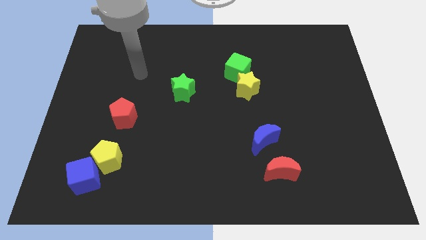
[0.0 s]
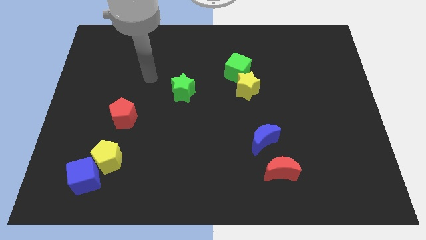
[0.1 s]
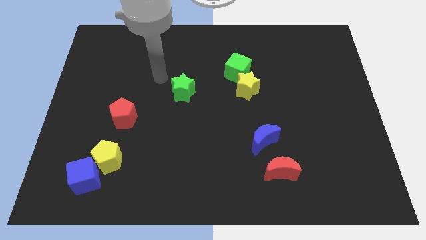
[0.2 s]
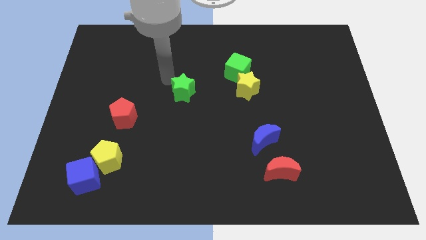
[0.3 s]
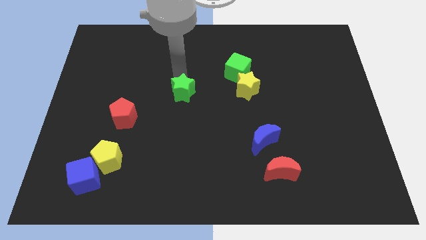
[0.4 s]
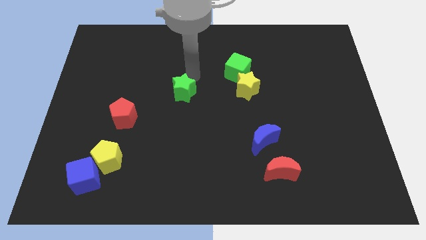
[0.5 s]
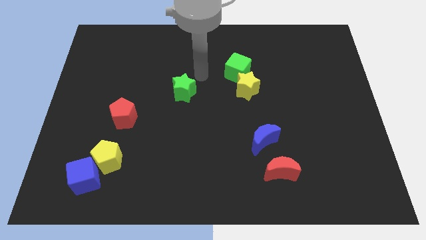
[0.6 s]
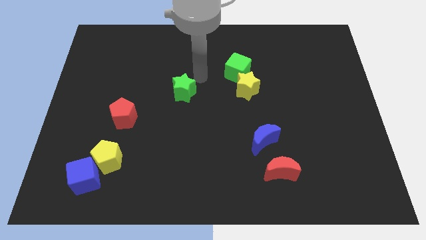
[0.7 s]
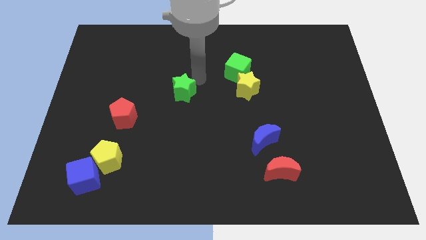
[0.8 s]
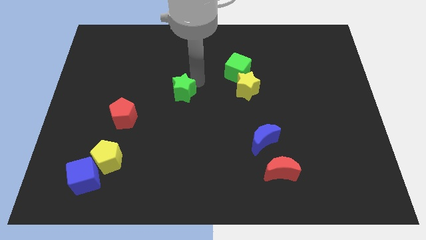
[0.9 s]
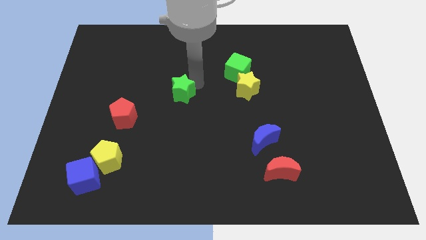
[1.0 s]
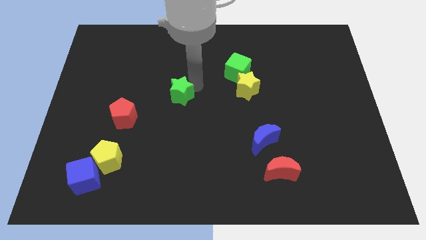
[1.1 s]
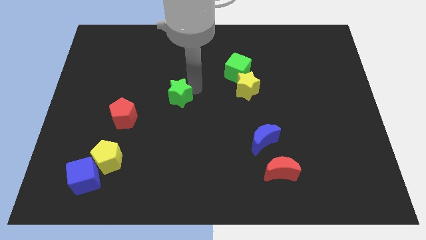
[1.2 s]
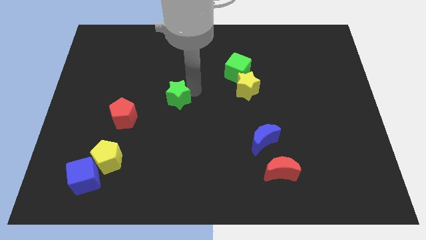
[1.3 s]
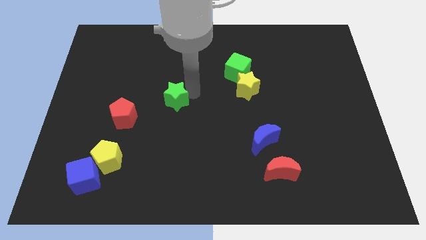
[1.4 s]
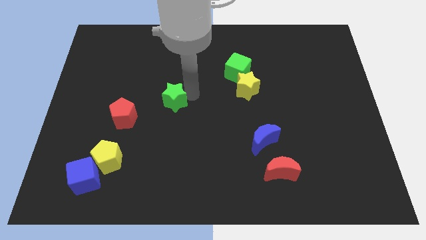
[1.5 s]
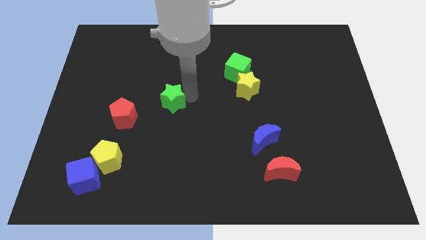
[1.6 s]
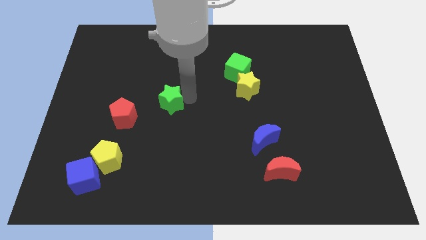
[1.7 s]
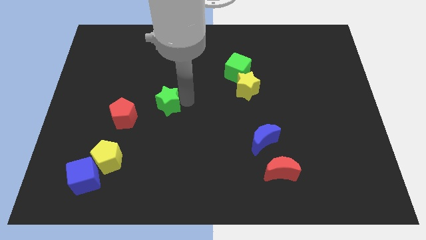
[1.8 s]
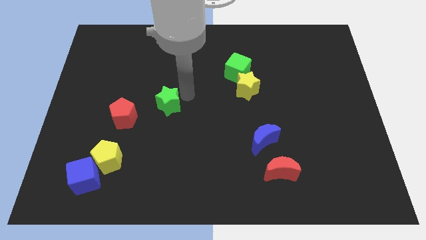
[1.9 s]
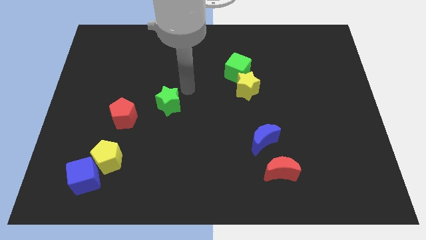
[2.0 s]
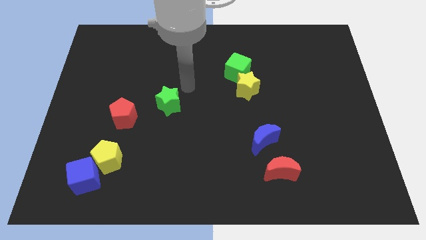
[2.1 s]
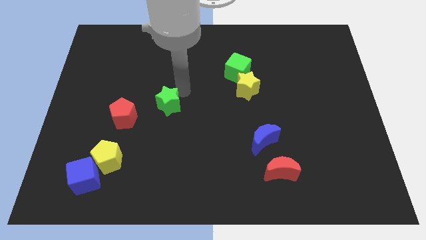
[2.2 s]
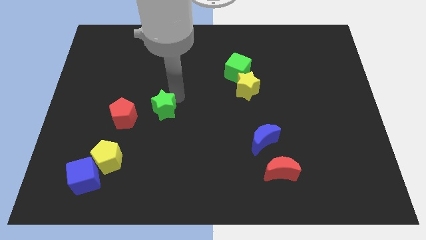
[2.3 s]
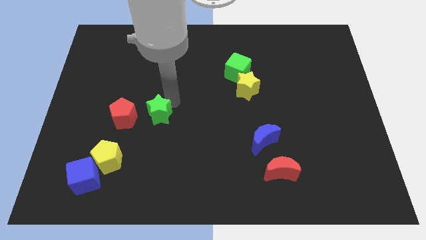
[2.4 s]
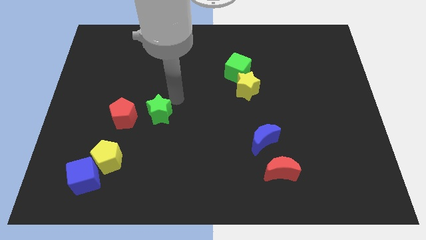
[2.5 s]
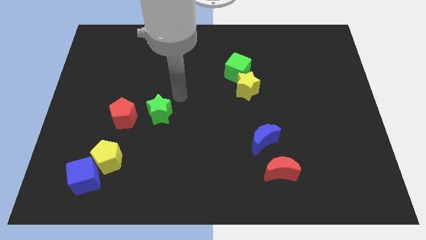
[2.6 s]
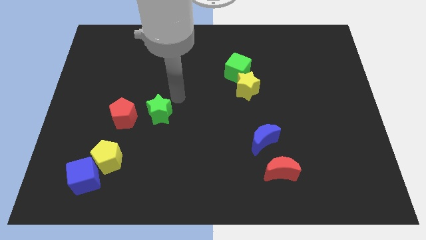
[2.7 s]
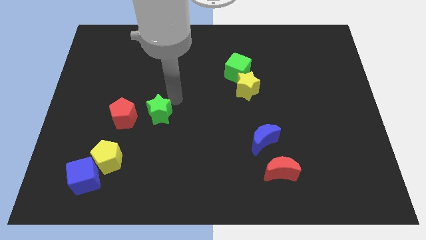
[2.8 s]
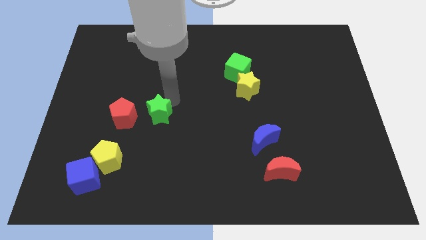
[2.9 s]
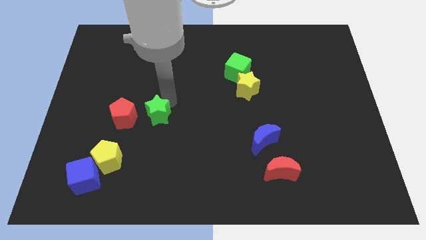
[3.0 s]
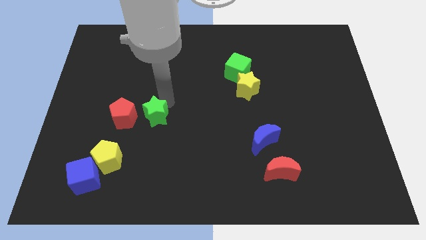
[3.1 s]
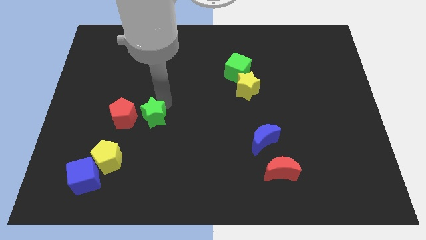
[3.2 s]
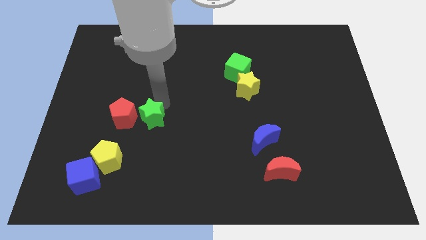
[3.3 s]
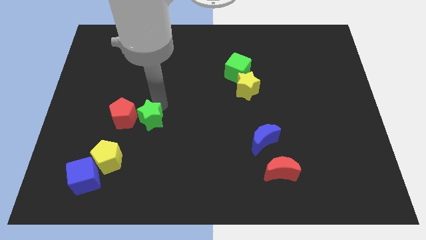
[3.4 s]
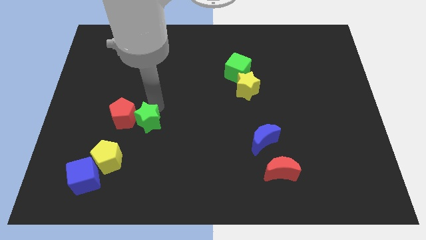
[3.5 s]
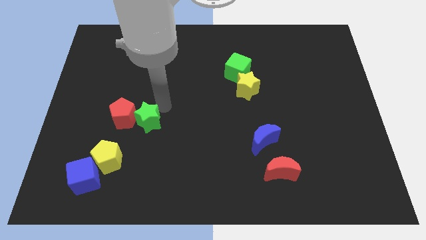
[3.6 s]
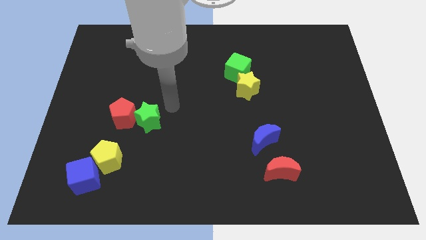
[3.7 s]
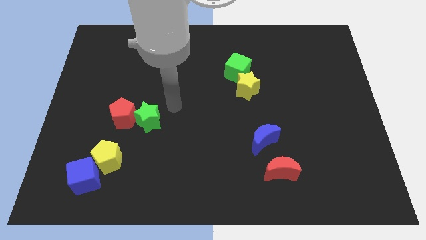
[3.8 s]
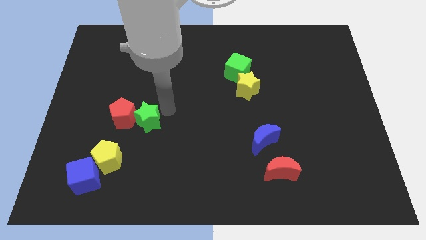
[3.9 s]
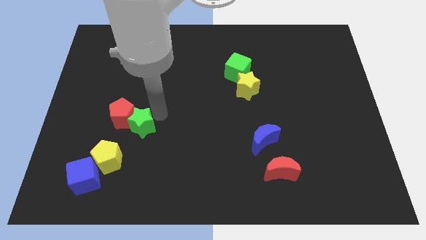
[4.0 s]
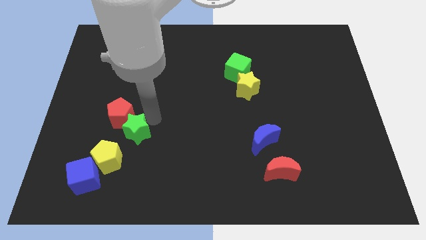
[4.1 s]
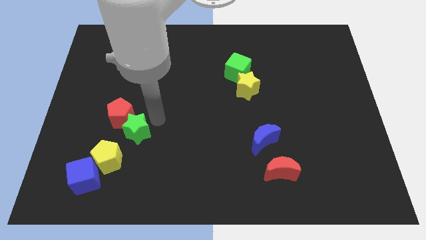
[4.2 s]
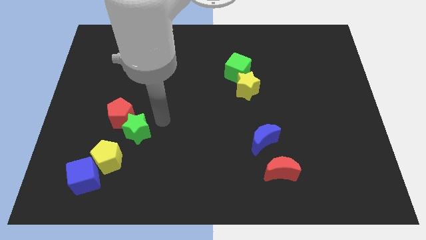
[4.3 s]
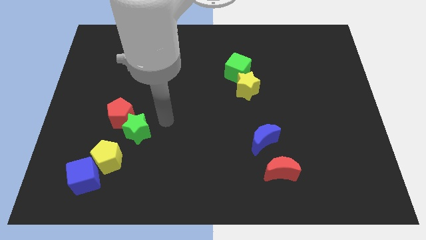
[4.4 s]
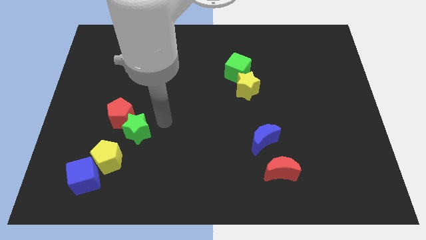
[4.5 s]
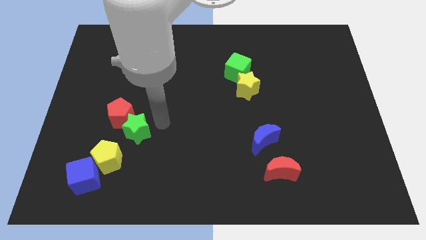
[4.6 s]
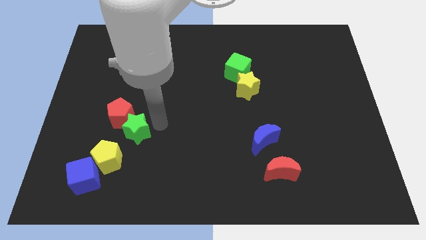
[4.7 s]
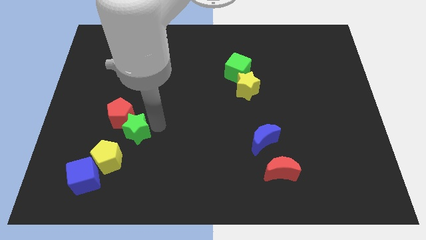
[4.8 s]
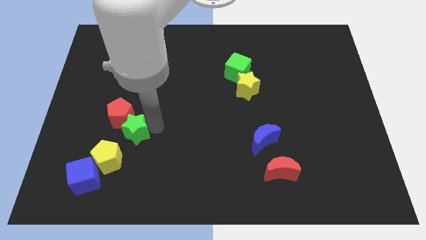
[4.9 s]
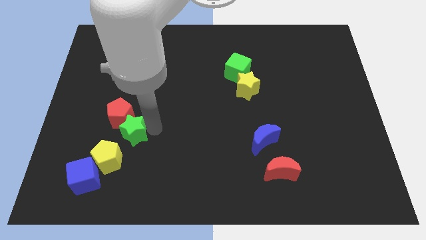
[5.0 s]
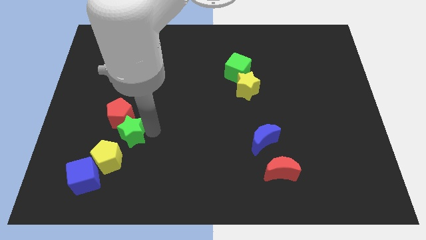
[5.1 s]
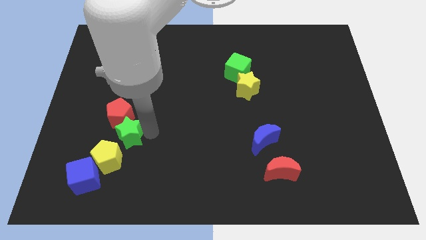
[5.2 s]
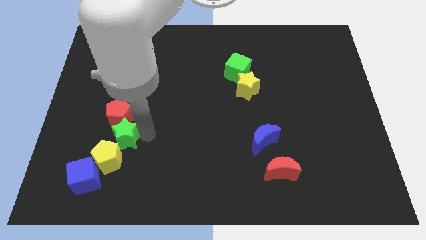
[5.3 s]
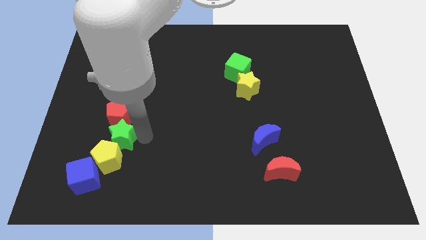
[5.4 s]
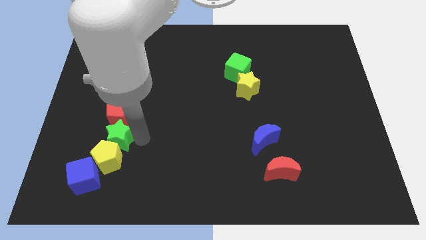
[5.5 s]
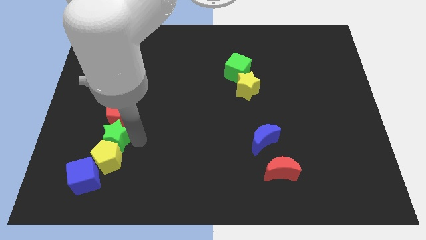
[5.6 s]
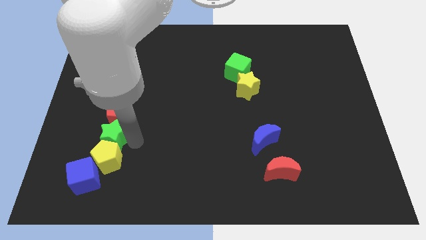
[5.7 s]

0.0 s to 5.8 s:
move the green star above the blue cube

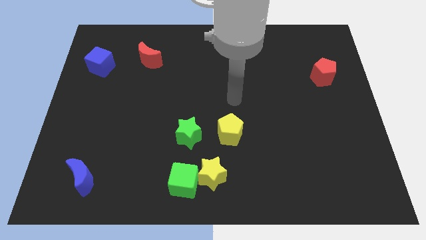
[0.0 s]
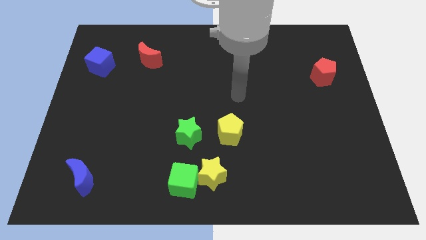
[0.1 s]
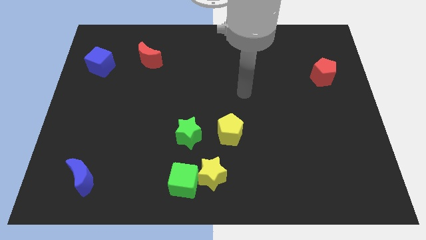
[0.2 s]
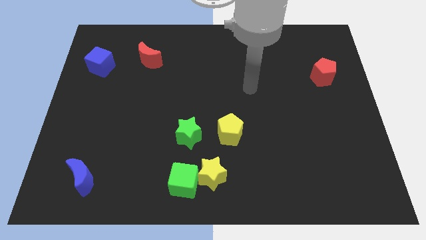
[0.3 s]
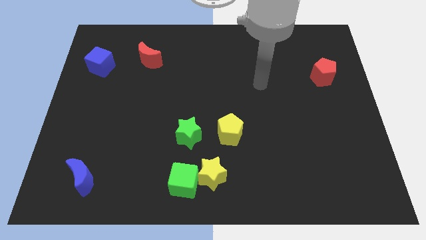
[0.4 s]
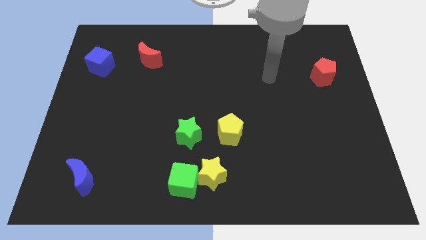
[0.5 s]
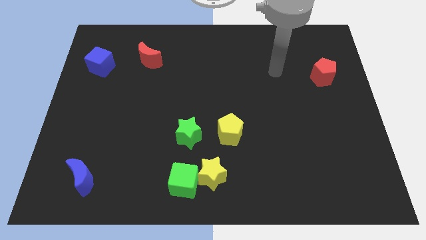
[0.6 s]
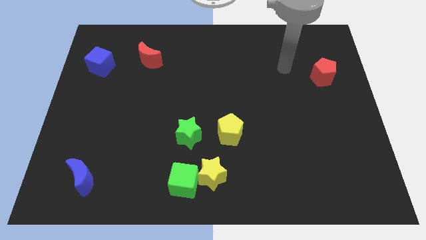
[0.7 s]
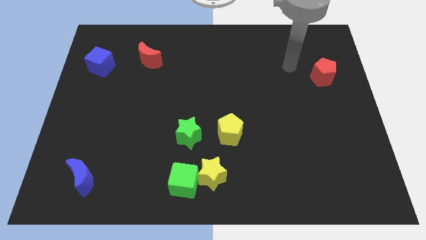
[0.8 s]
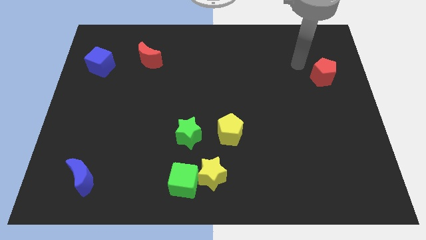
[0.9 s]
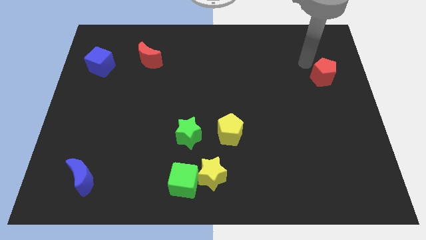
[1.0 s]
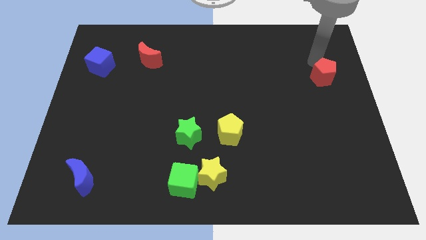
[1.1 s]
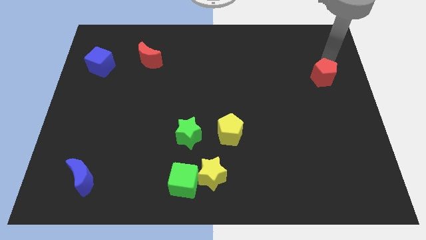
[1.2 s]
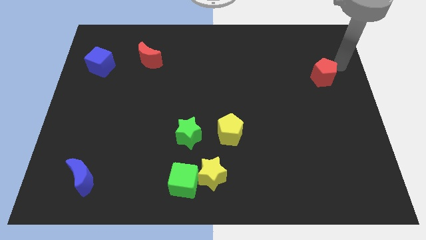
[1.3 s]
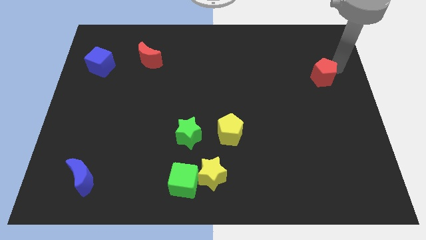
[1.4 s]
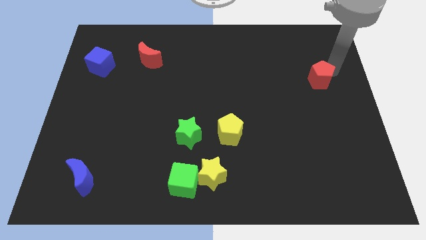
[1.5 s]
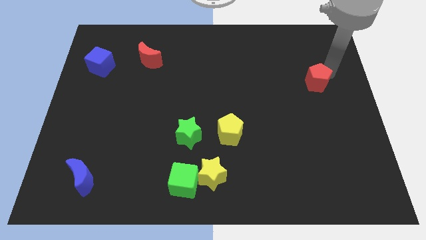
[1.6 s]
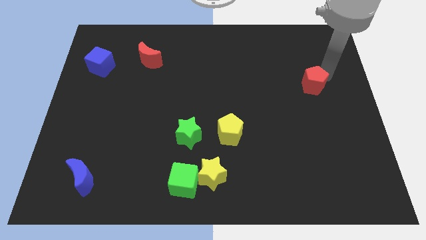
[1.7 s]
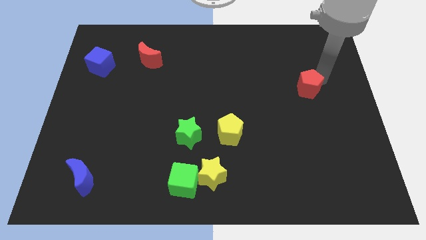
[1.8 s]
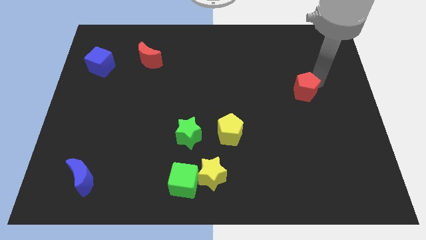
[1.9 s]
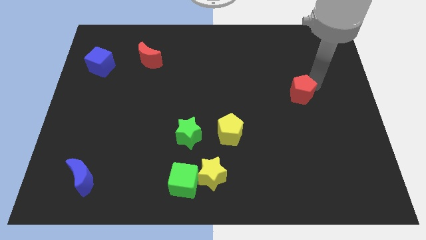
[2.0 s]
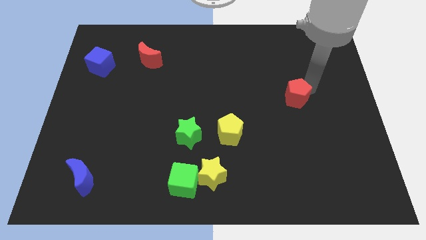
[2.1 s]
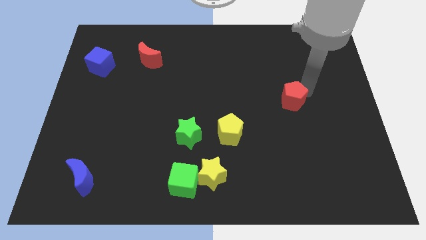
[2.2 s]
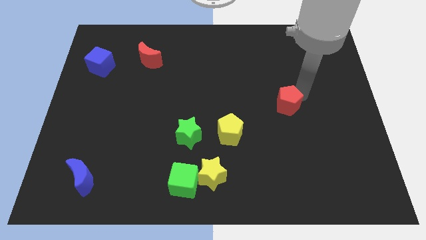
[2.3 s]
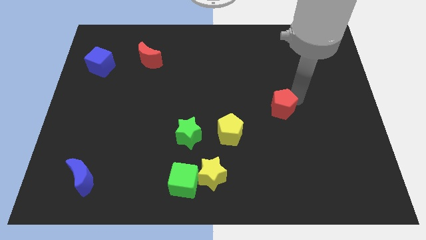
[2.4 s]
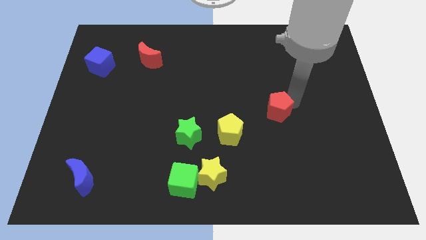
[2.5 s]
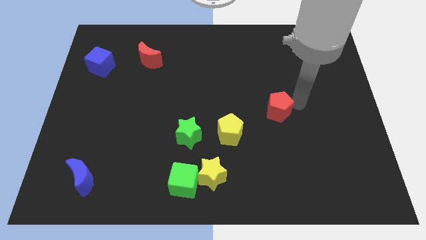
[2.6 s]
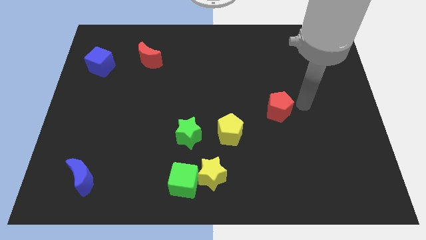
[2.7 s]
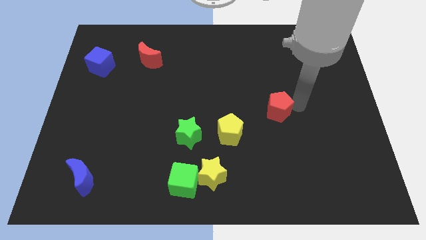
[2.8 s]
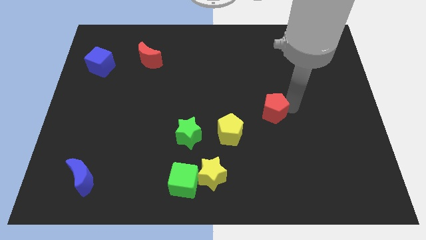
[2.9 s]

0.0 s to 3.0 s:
move the red pentagon to the top right of the yellow pentagon
